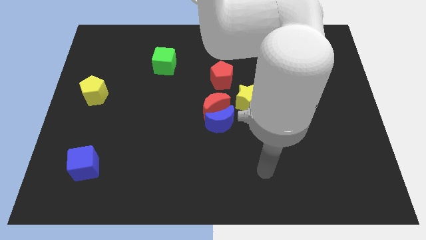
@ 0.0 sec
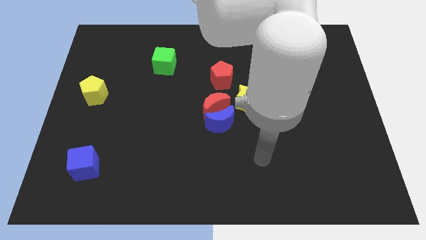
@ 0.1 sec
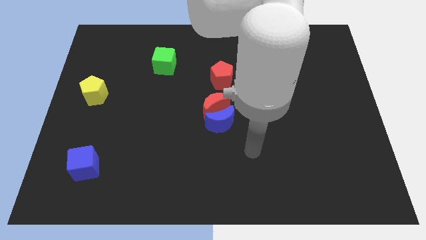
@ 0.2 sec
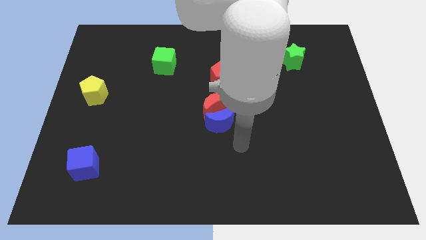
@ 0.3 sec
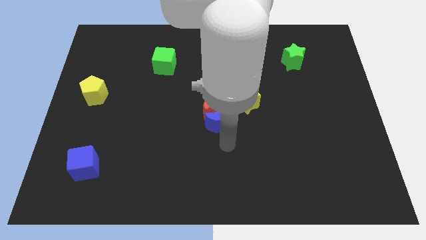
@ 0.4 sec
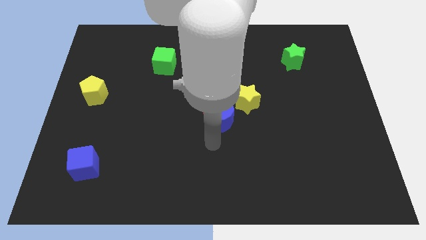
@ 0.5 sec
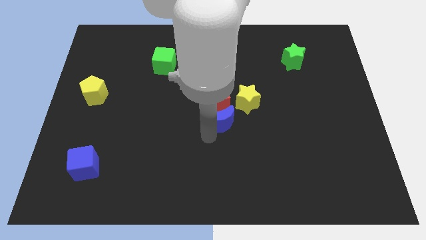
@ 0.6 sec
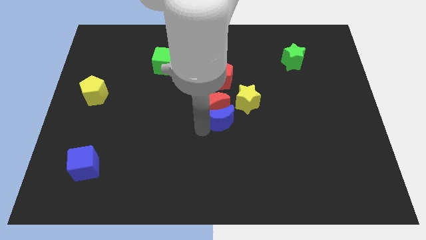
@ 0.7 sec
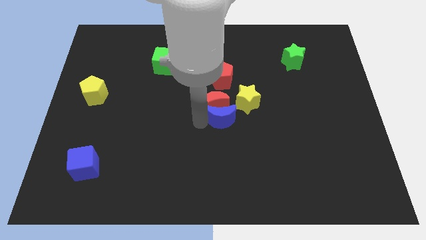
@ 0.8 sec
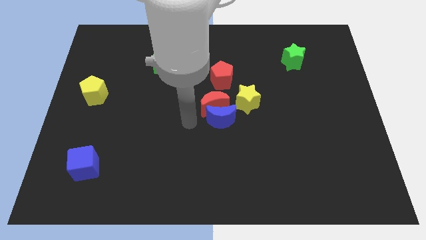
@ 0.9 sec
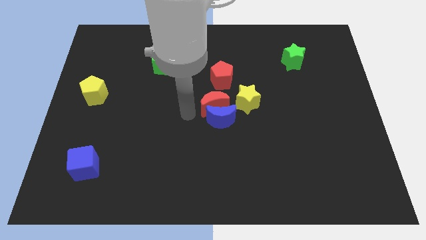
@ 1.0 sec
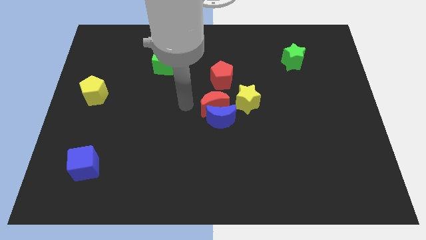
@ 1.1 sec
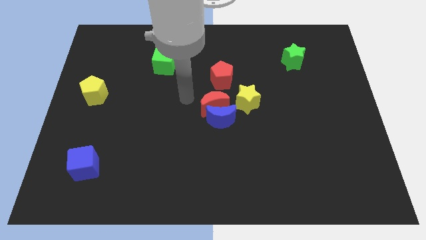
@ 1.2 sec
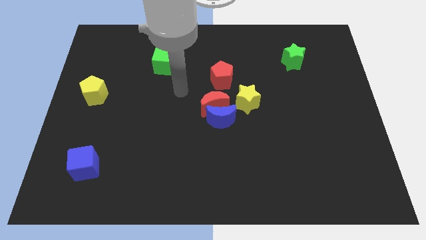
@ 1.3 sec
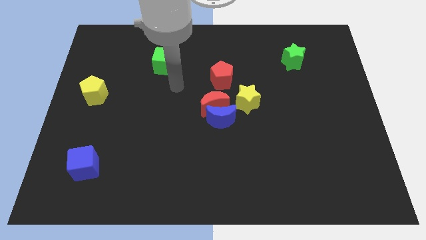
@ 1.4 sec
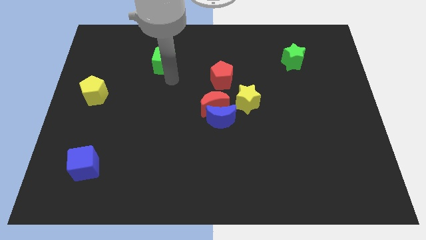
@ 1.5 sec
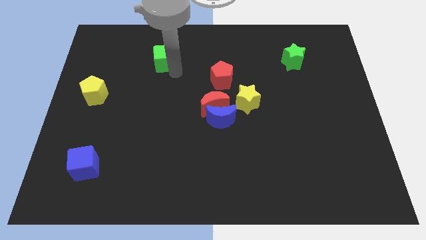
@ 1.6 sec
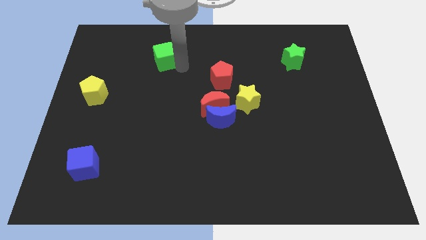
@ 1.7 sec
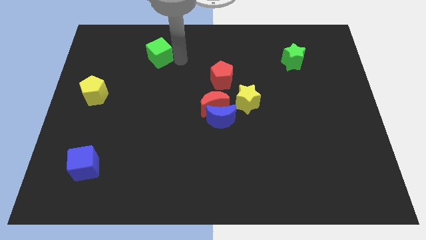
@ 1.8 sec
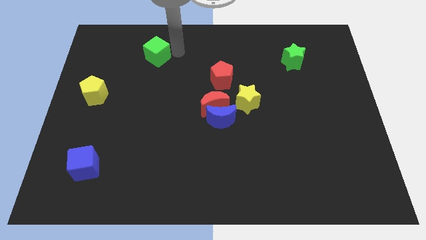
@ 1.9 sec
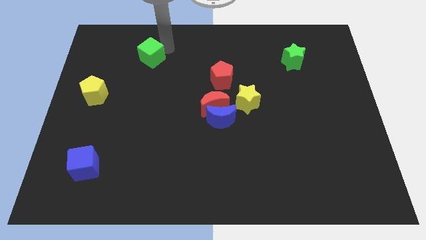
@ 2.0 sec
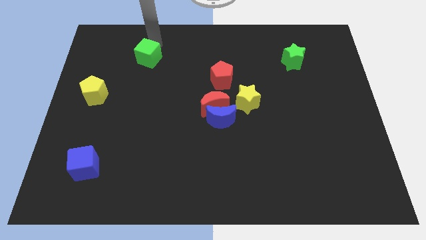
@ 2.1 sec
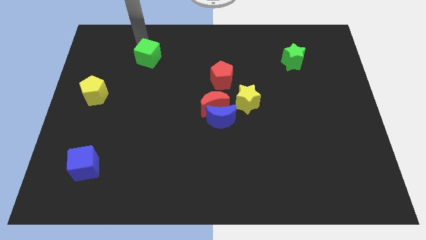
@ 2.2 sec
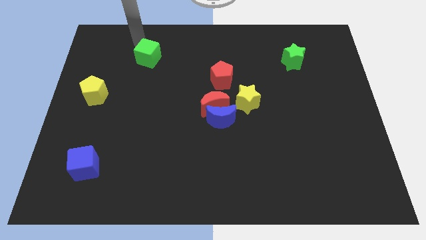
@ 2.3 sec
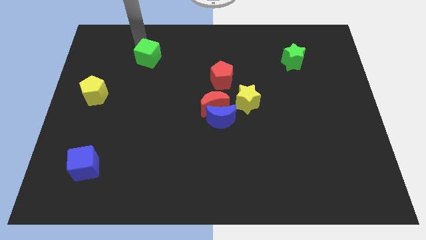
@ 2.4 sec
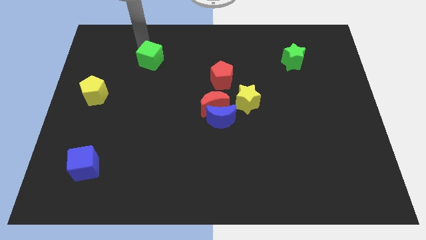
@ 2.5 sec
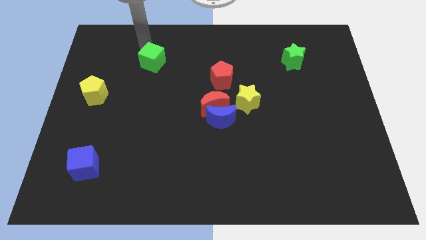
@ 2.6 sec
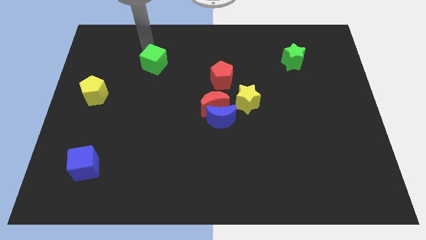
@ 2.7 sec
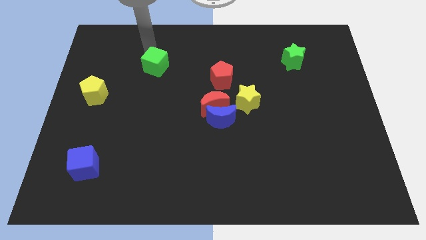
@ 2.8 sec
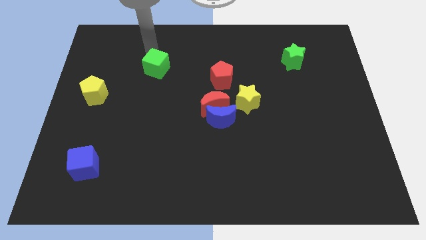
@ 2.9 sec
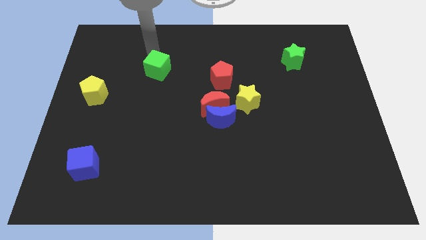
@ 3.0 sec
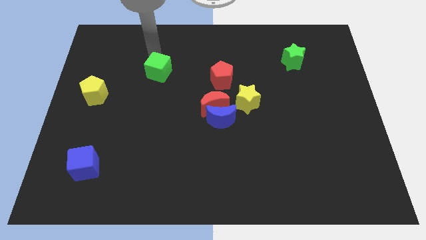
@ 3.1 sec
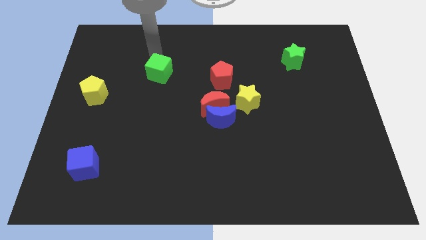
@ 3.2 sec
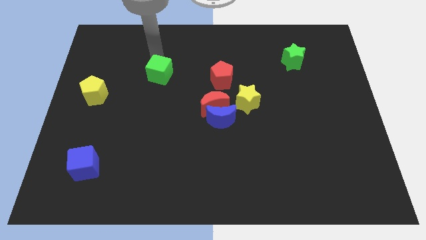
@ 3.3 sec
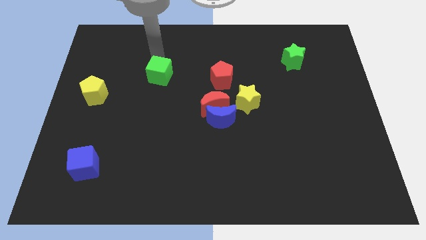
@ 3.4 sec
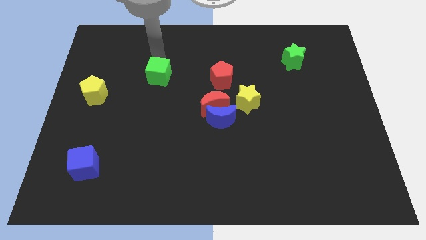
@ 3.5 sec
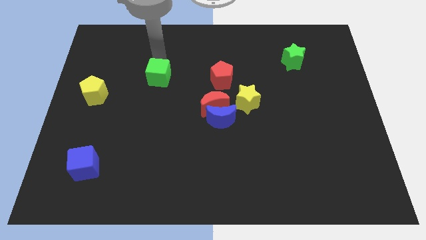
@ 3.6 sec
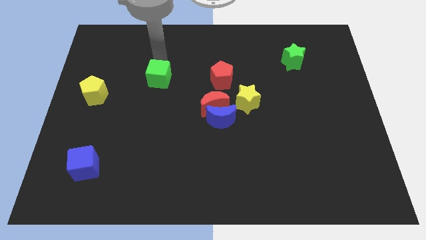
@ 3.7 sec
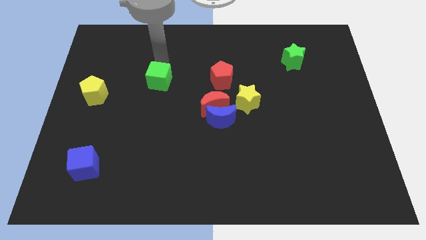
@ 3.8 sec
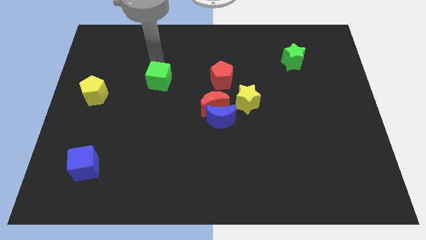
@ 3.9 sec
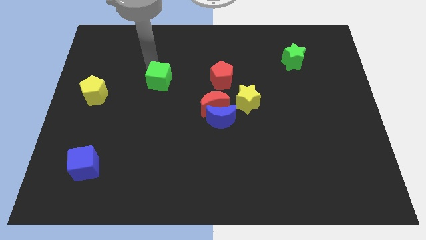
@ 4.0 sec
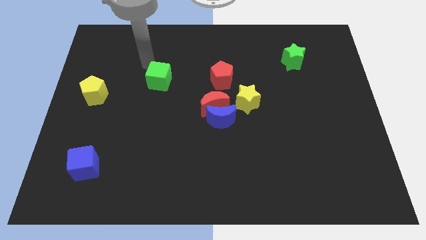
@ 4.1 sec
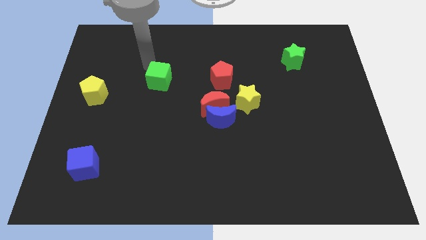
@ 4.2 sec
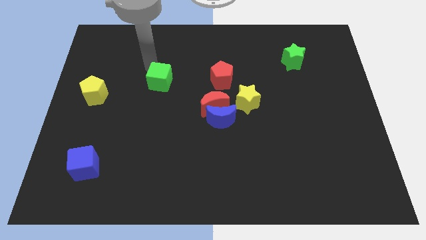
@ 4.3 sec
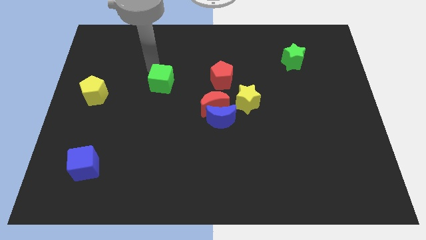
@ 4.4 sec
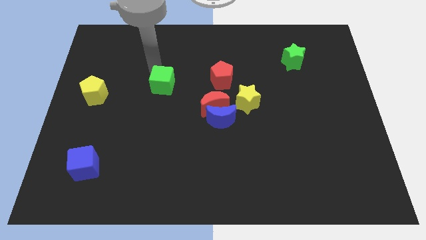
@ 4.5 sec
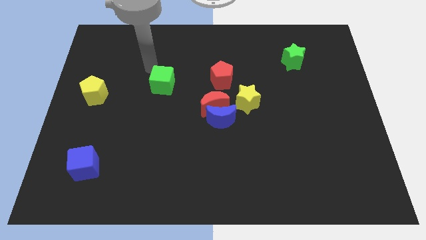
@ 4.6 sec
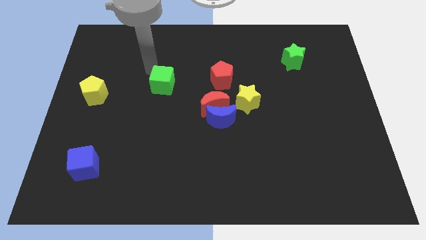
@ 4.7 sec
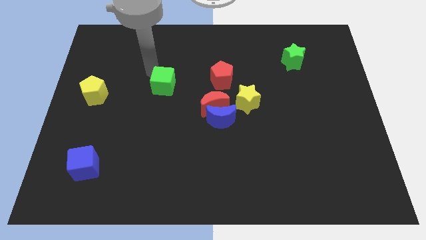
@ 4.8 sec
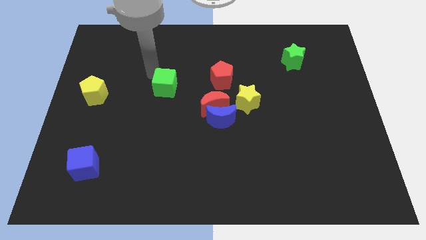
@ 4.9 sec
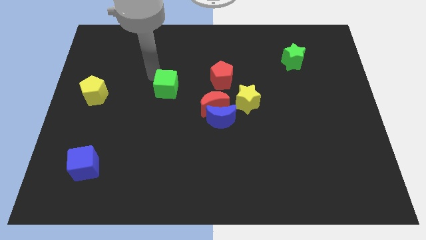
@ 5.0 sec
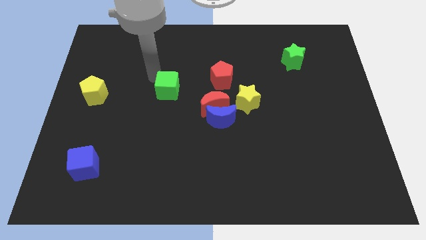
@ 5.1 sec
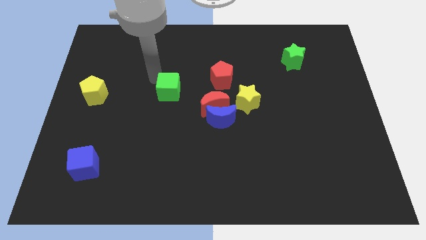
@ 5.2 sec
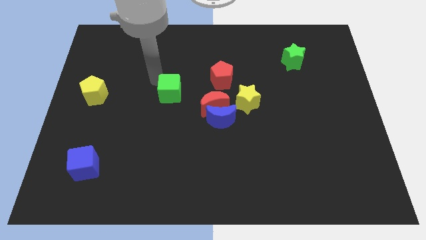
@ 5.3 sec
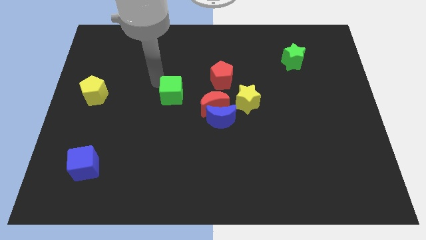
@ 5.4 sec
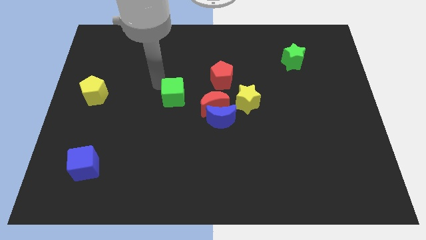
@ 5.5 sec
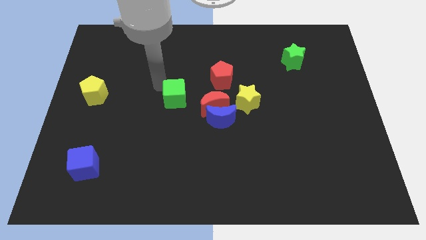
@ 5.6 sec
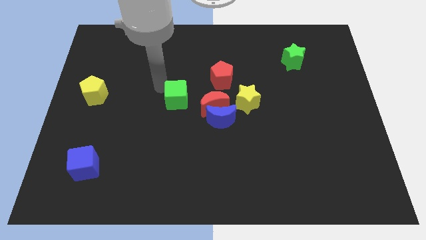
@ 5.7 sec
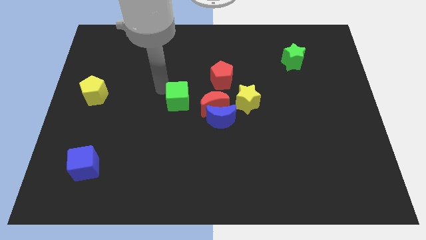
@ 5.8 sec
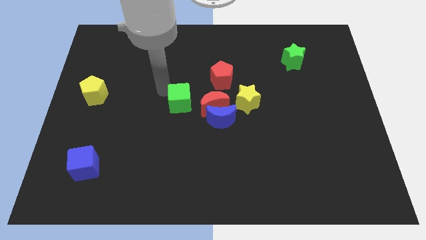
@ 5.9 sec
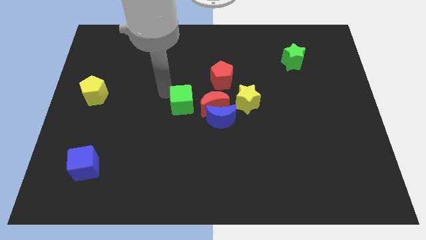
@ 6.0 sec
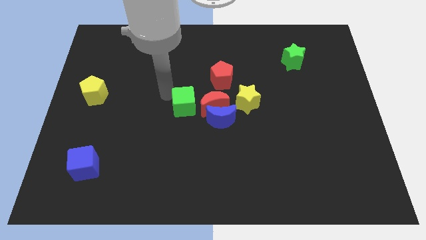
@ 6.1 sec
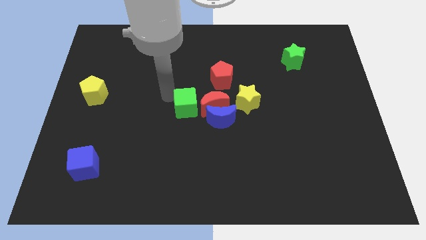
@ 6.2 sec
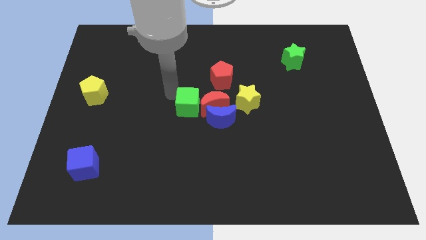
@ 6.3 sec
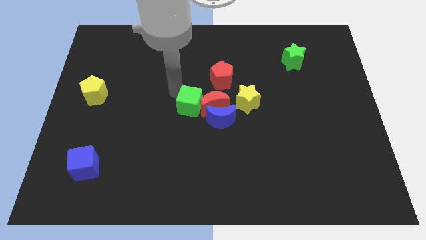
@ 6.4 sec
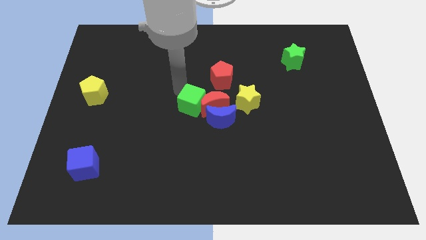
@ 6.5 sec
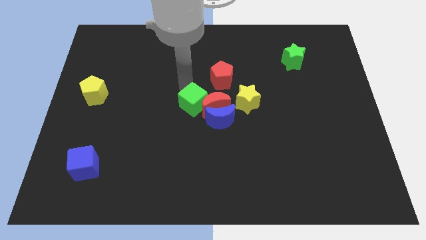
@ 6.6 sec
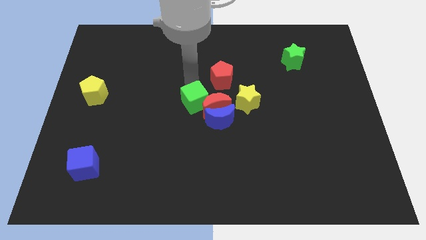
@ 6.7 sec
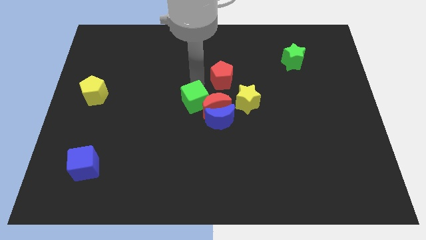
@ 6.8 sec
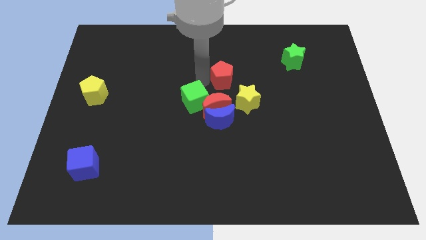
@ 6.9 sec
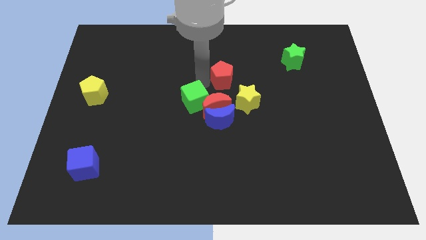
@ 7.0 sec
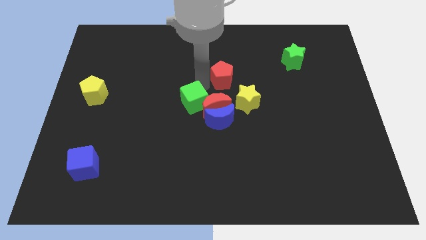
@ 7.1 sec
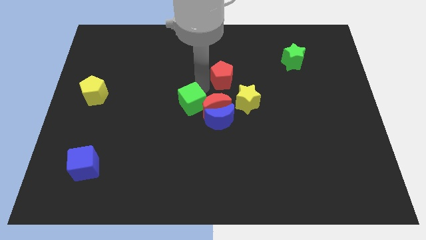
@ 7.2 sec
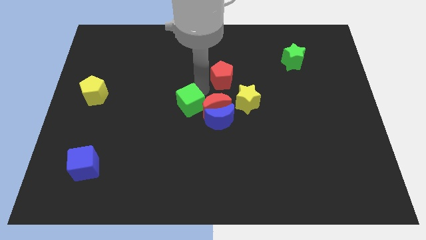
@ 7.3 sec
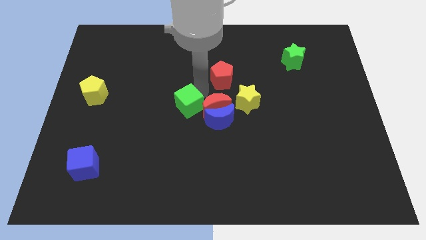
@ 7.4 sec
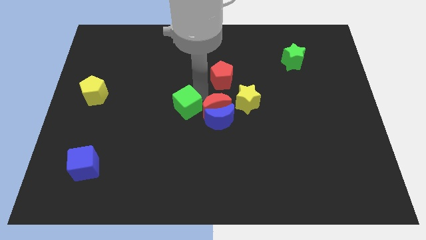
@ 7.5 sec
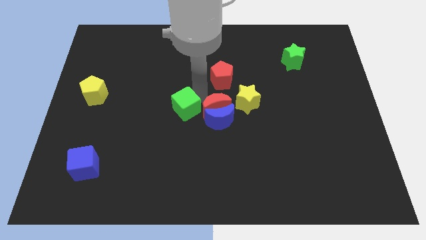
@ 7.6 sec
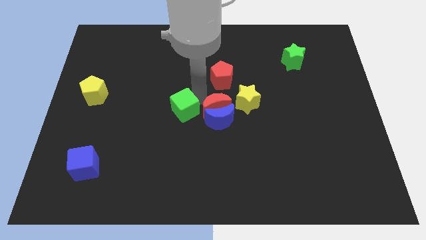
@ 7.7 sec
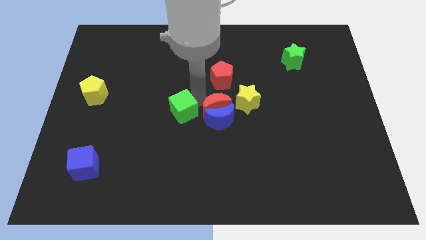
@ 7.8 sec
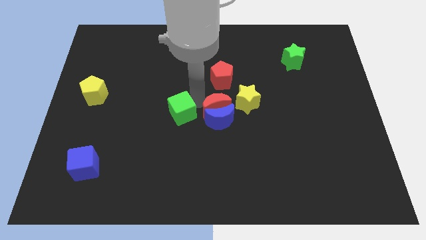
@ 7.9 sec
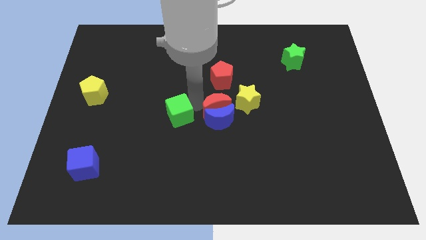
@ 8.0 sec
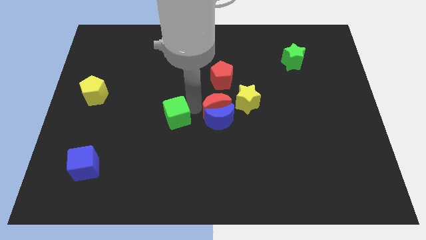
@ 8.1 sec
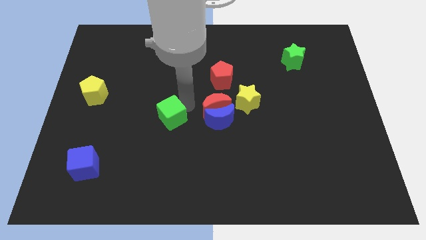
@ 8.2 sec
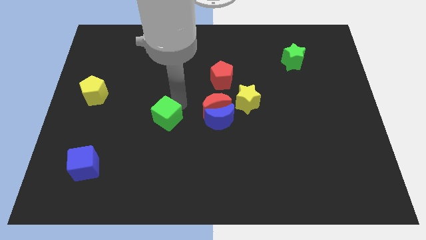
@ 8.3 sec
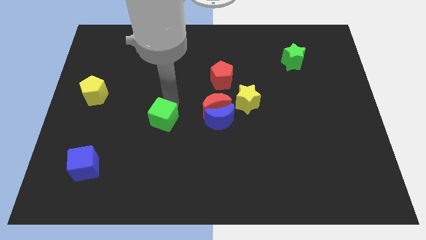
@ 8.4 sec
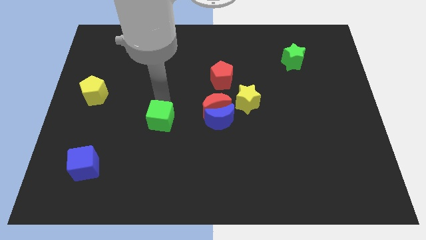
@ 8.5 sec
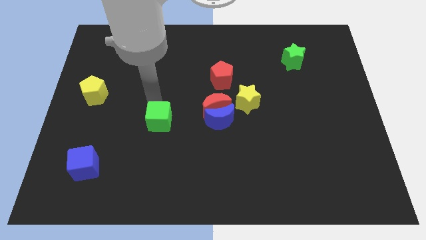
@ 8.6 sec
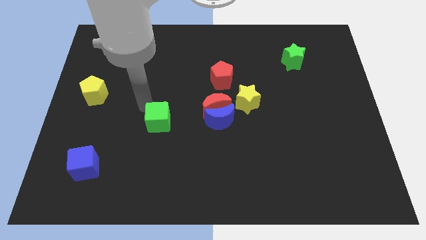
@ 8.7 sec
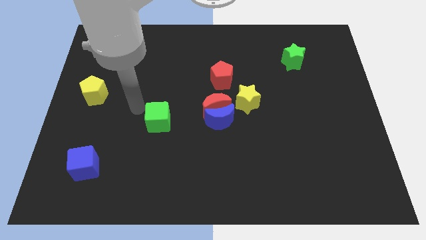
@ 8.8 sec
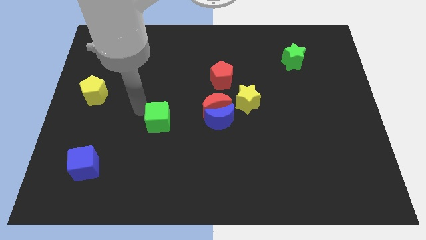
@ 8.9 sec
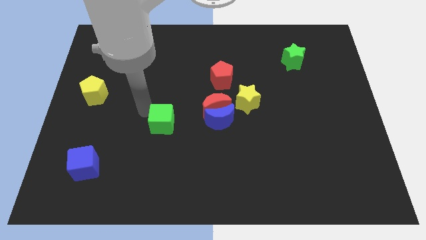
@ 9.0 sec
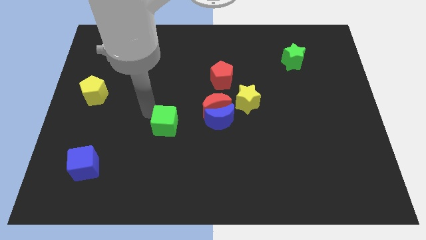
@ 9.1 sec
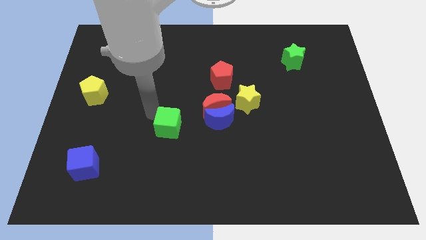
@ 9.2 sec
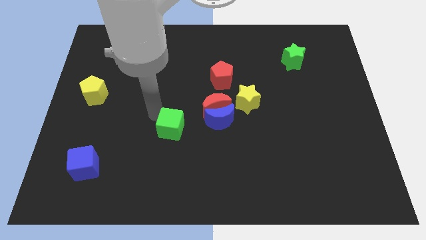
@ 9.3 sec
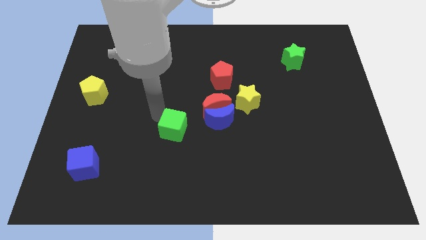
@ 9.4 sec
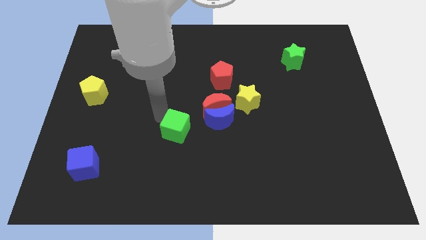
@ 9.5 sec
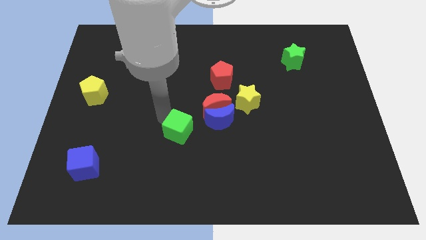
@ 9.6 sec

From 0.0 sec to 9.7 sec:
push the green cube to the bottom left of the blue moon
